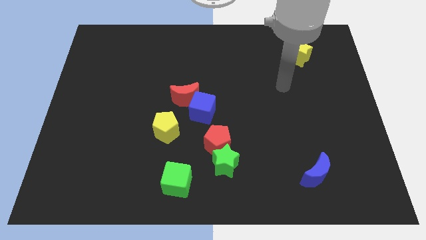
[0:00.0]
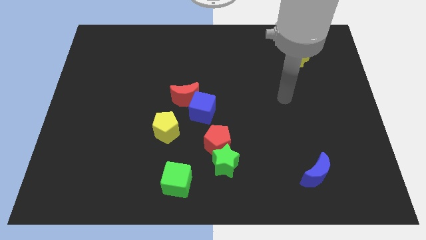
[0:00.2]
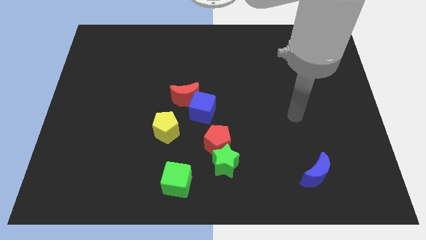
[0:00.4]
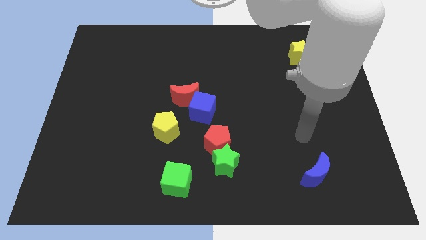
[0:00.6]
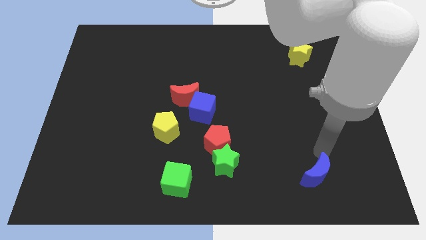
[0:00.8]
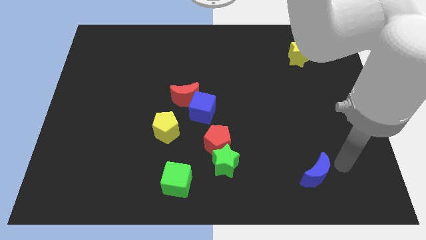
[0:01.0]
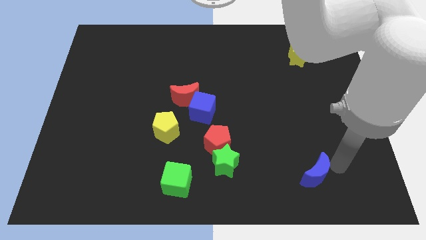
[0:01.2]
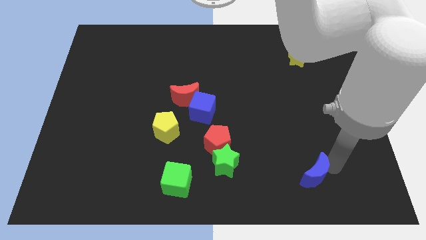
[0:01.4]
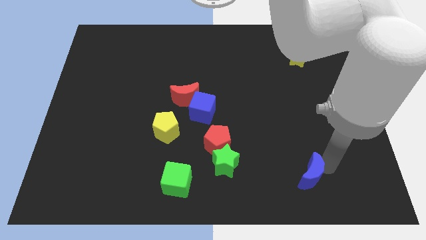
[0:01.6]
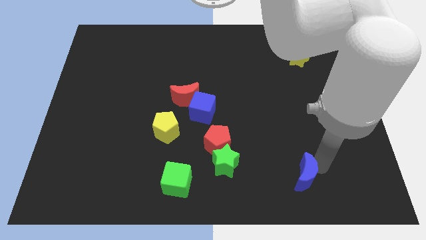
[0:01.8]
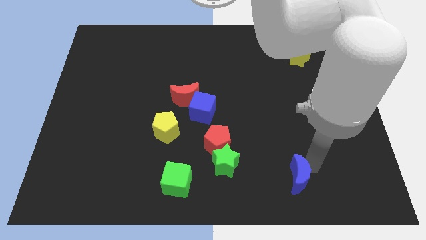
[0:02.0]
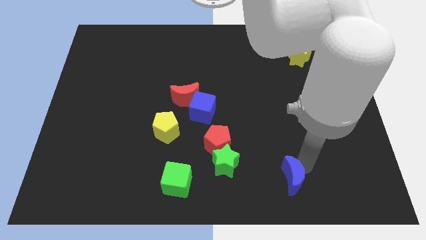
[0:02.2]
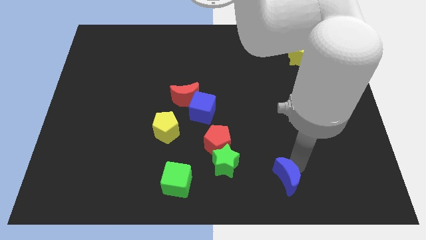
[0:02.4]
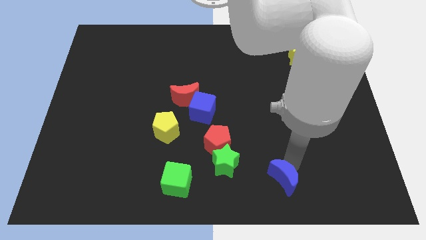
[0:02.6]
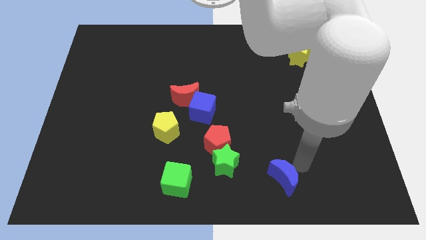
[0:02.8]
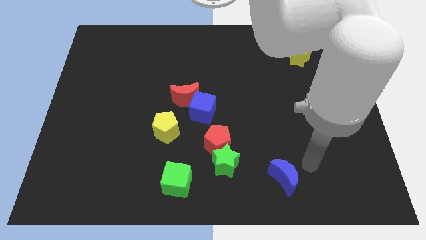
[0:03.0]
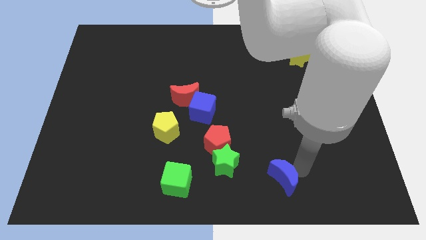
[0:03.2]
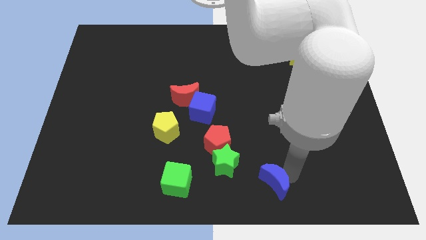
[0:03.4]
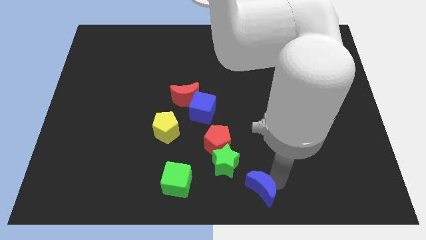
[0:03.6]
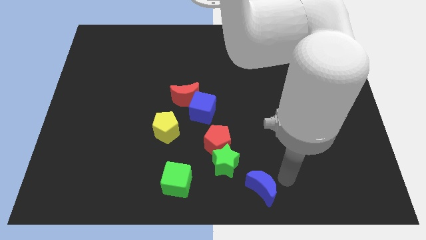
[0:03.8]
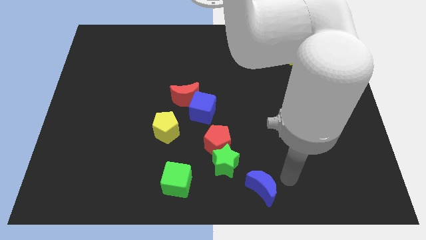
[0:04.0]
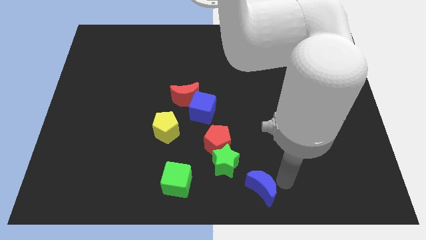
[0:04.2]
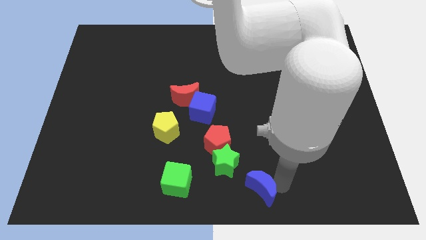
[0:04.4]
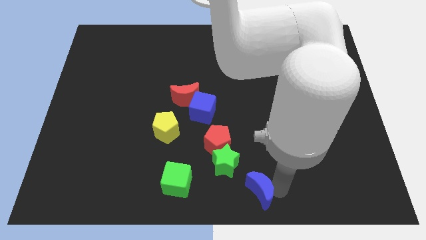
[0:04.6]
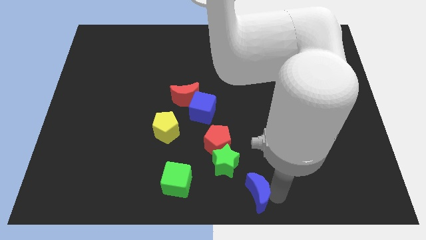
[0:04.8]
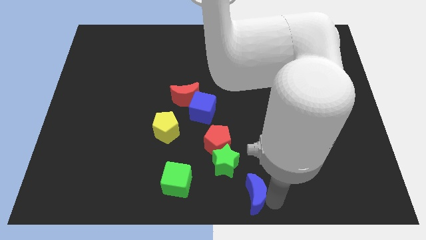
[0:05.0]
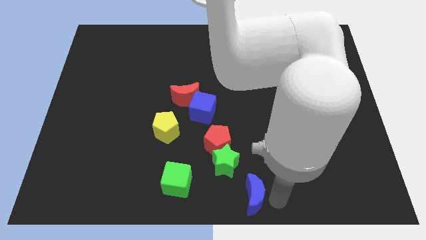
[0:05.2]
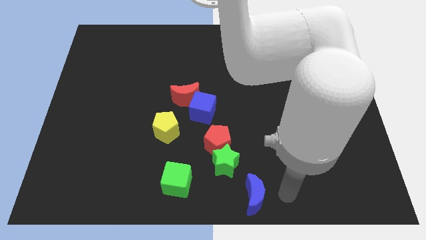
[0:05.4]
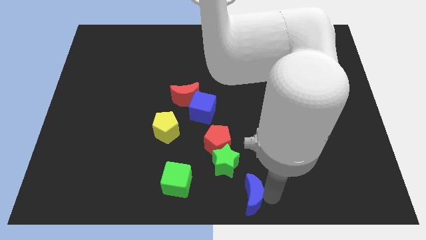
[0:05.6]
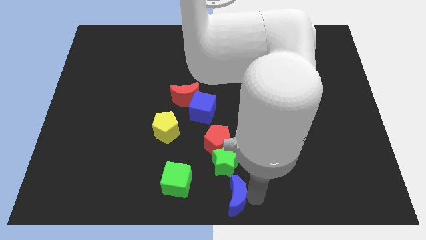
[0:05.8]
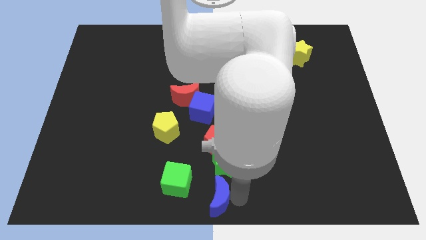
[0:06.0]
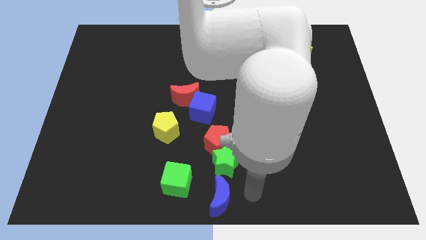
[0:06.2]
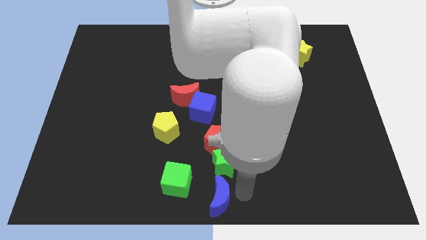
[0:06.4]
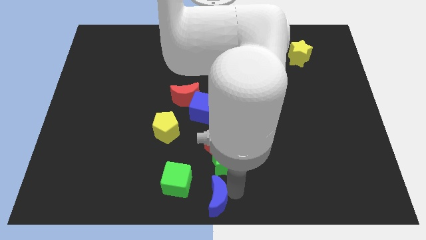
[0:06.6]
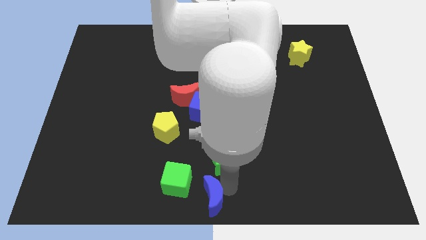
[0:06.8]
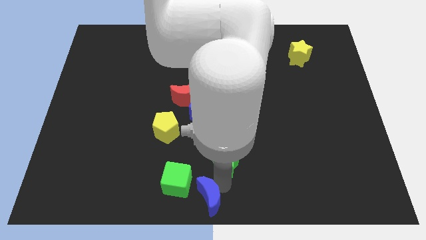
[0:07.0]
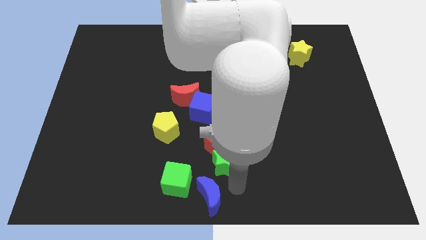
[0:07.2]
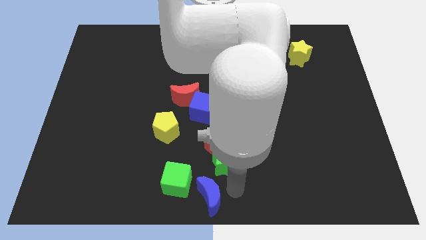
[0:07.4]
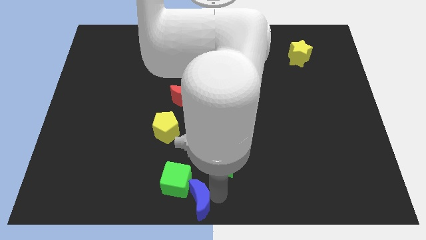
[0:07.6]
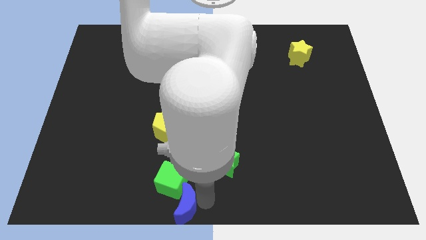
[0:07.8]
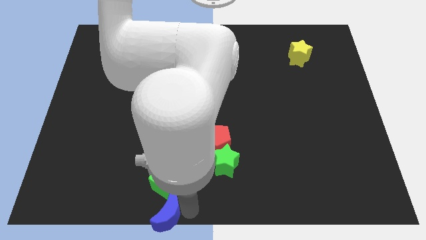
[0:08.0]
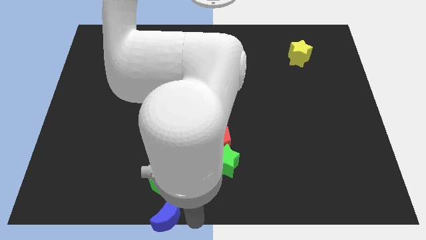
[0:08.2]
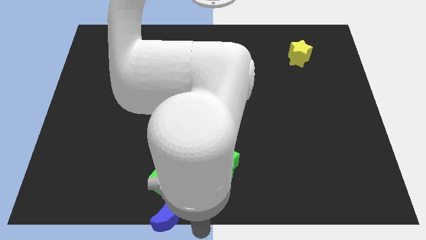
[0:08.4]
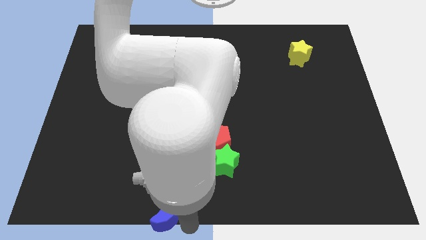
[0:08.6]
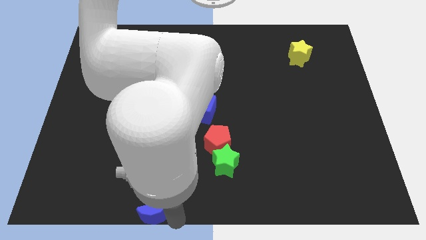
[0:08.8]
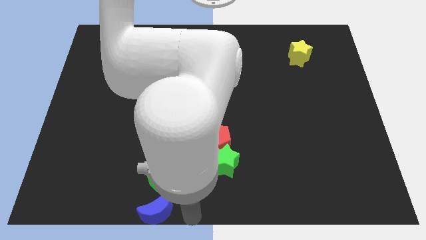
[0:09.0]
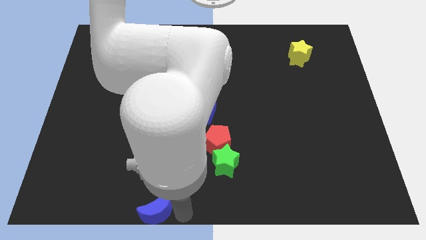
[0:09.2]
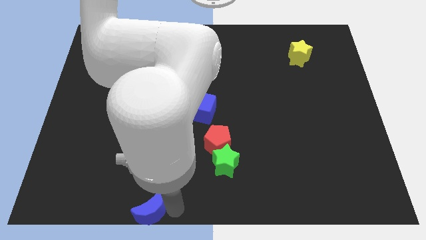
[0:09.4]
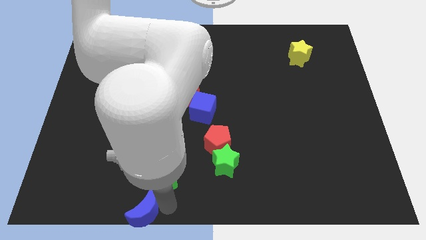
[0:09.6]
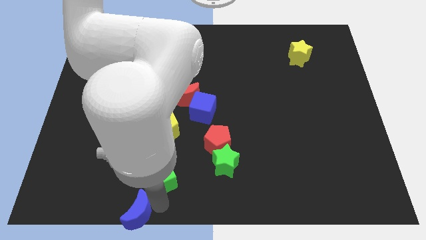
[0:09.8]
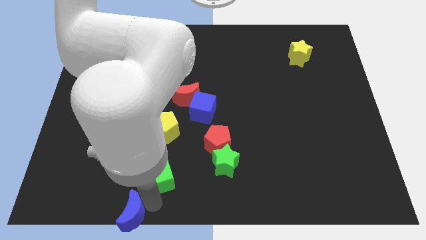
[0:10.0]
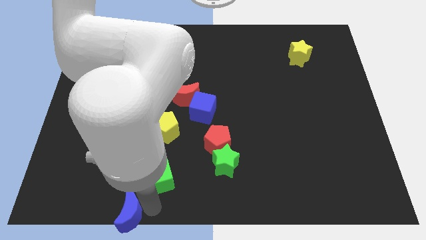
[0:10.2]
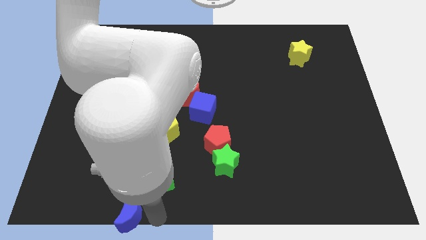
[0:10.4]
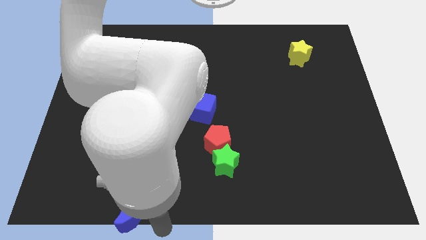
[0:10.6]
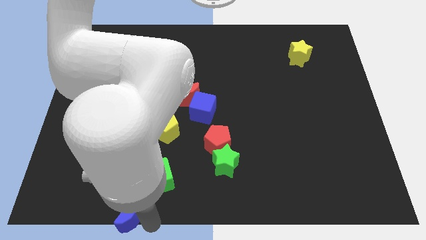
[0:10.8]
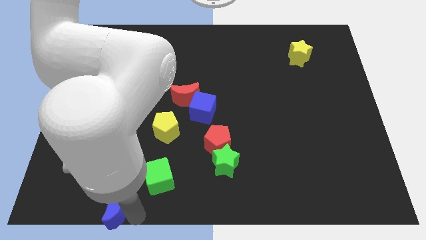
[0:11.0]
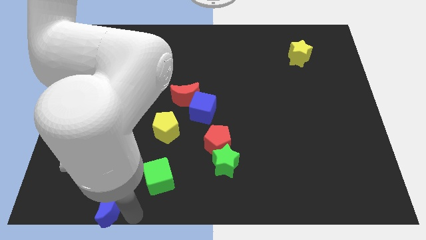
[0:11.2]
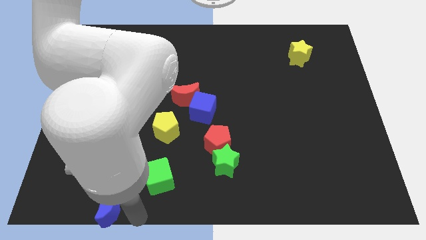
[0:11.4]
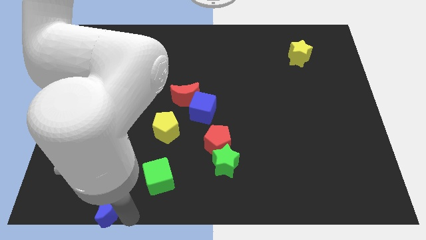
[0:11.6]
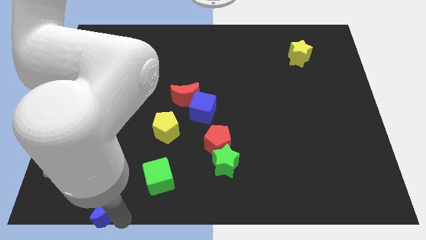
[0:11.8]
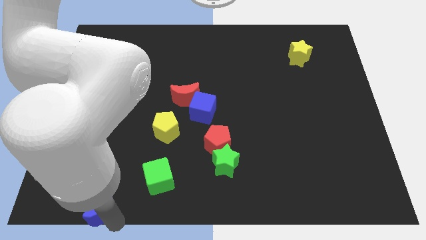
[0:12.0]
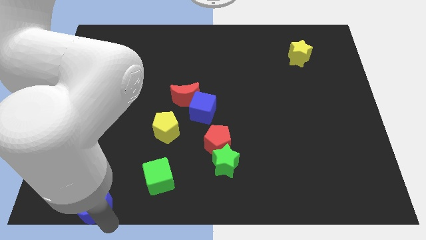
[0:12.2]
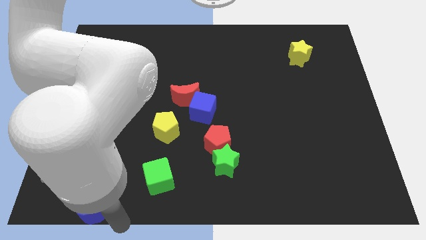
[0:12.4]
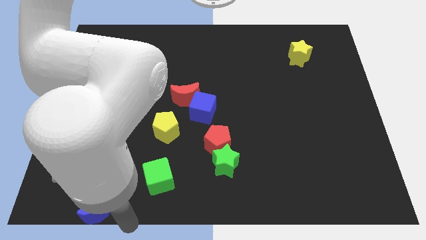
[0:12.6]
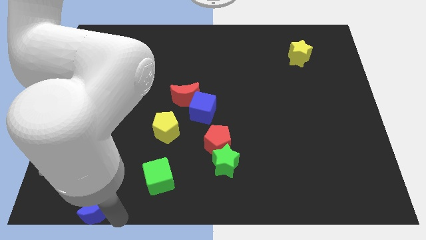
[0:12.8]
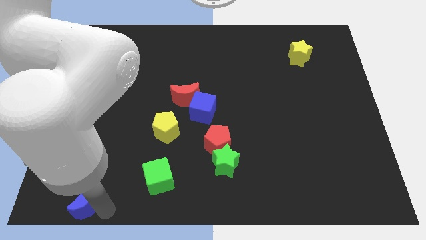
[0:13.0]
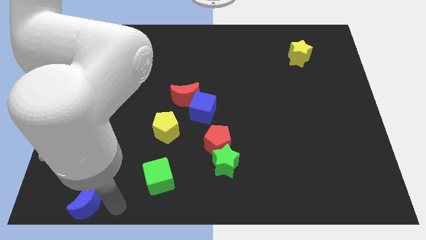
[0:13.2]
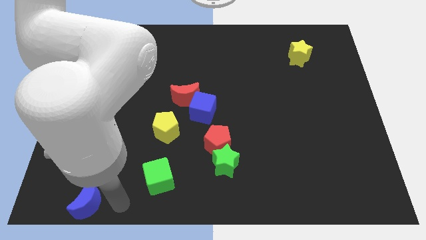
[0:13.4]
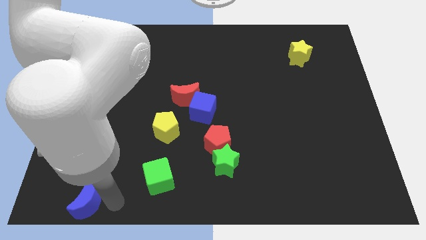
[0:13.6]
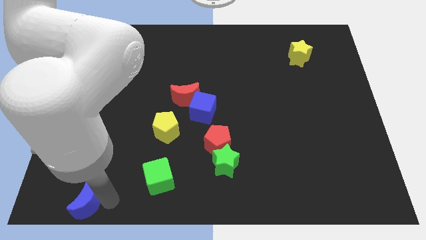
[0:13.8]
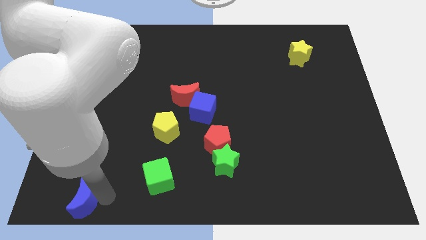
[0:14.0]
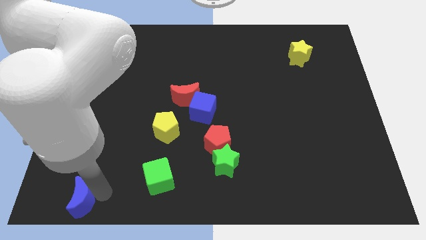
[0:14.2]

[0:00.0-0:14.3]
push the blue moon to the bottom left

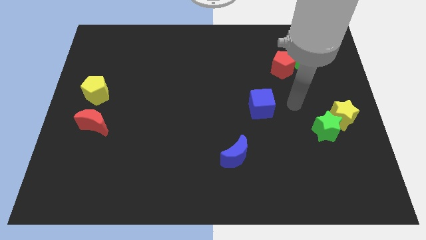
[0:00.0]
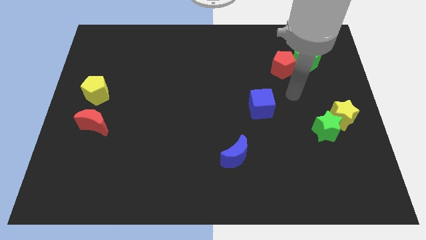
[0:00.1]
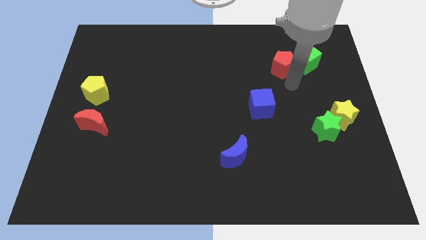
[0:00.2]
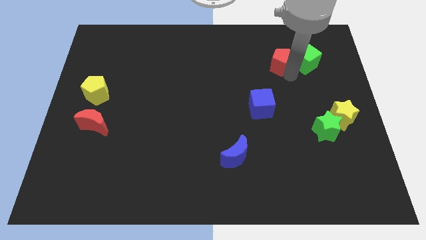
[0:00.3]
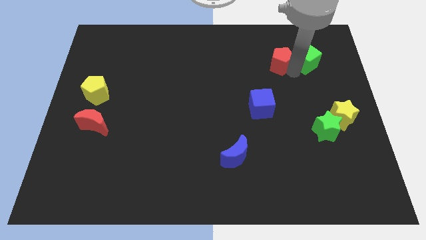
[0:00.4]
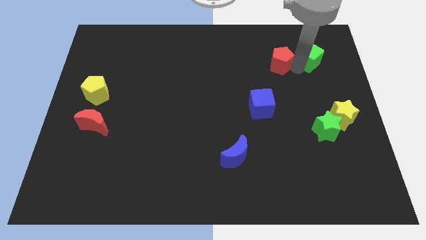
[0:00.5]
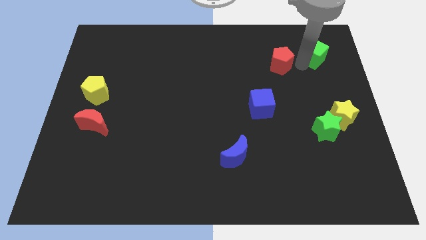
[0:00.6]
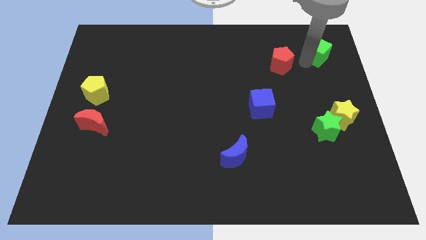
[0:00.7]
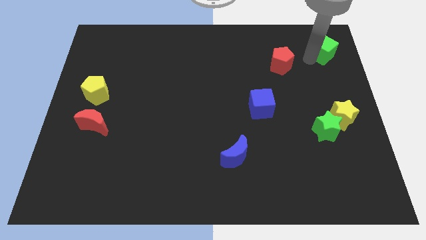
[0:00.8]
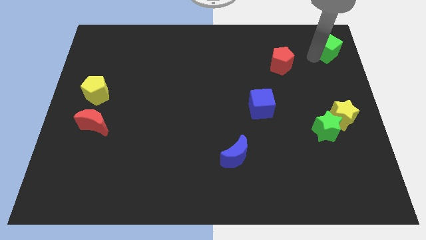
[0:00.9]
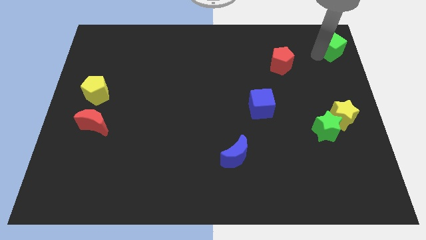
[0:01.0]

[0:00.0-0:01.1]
move the green cube to the top right corner
